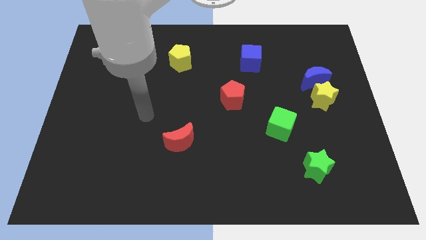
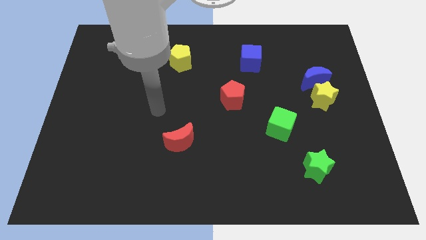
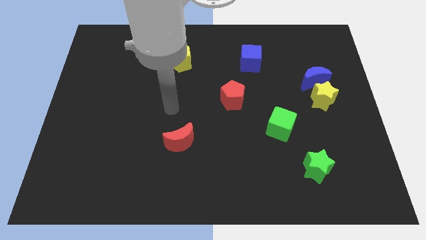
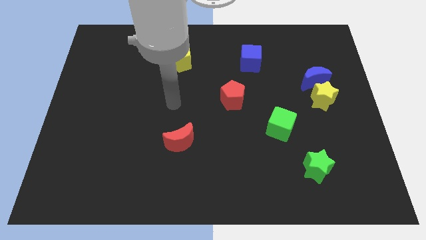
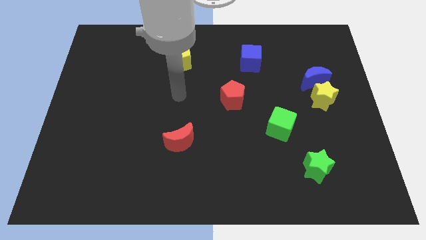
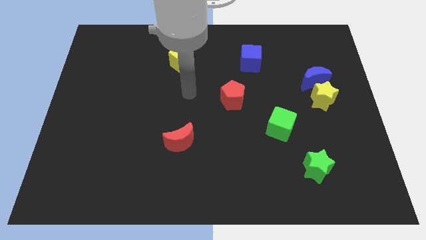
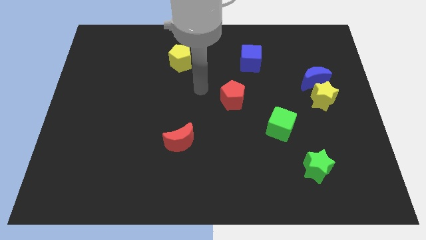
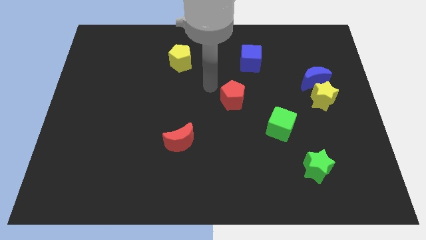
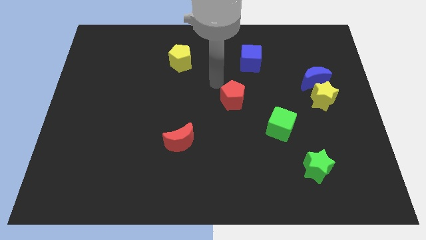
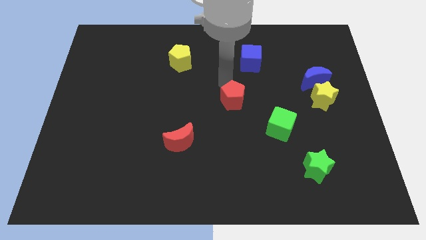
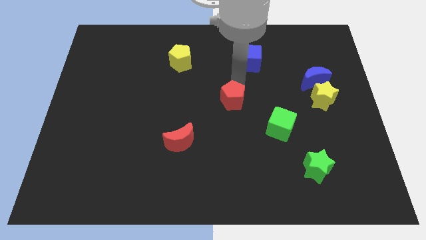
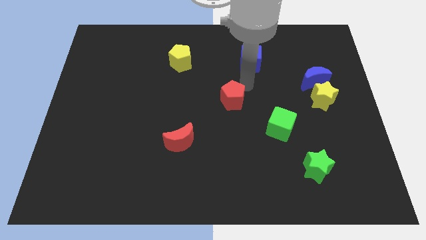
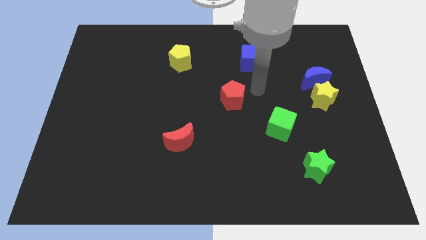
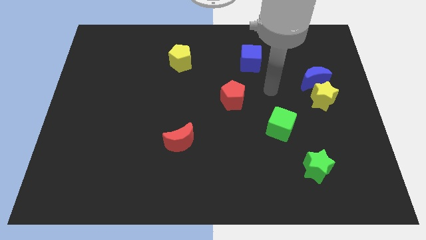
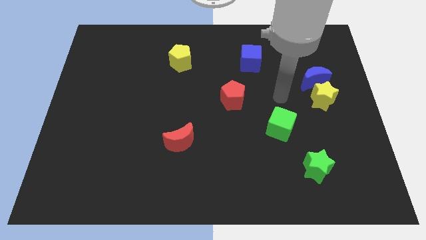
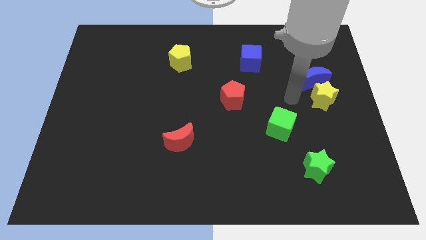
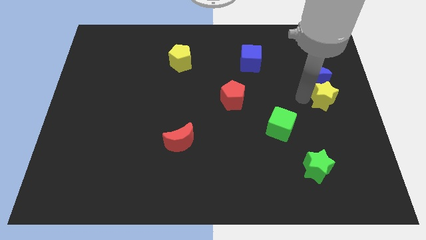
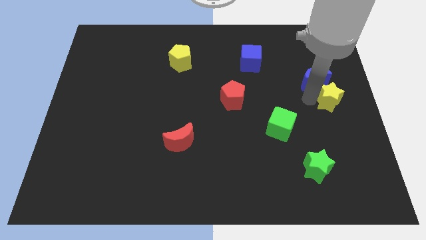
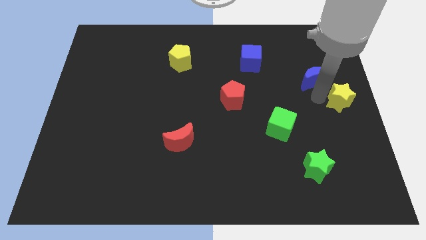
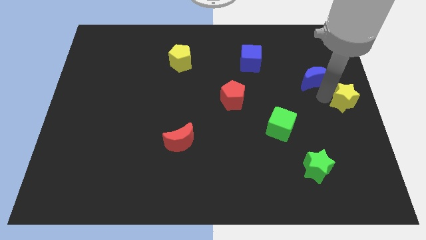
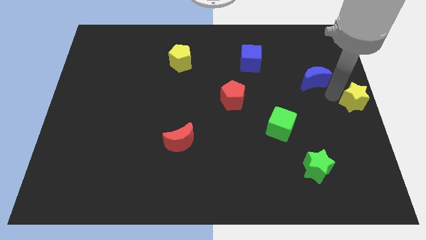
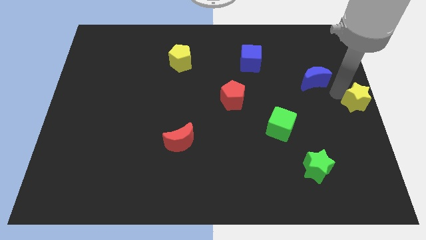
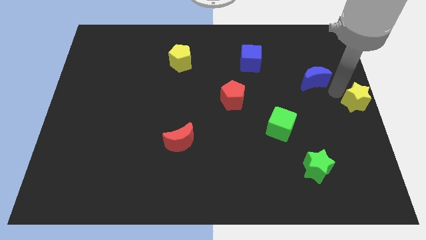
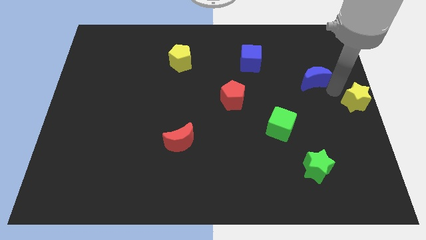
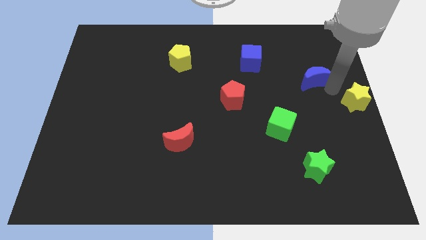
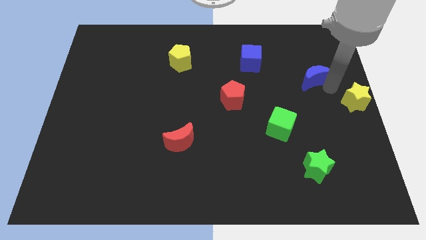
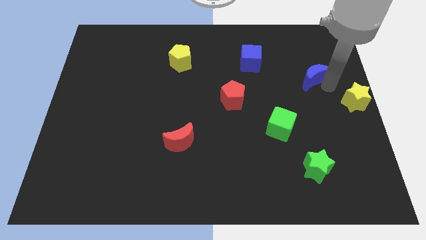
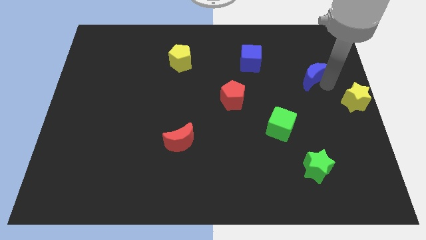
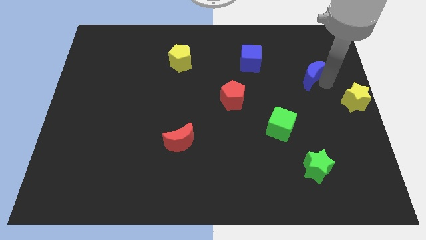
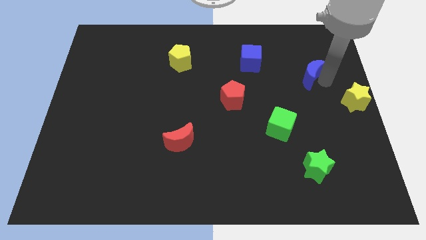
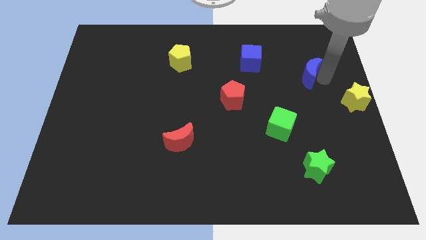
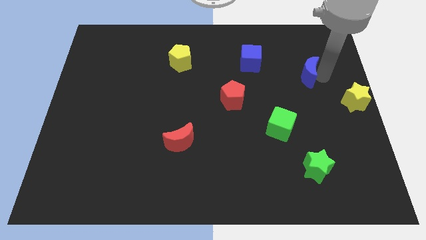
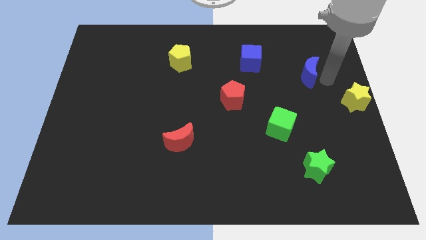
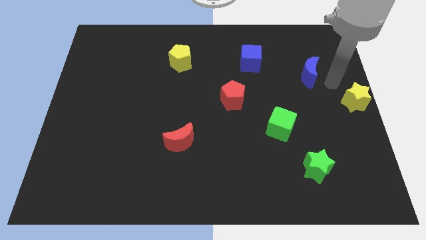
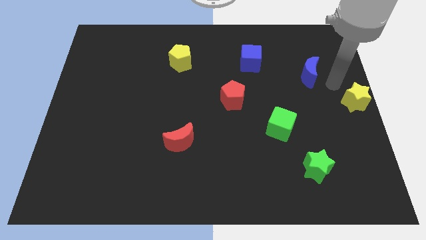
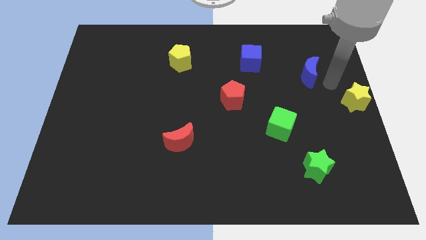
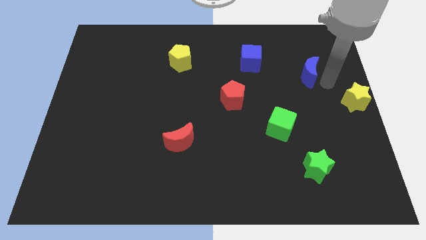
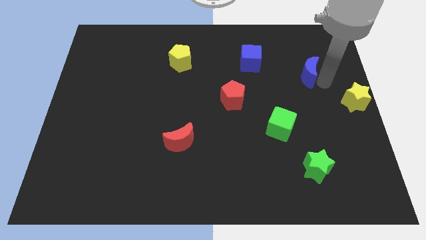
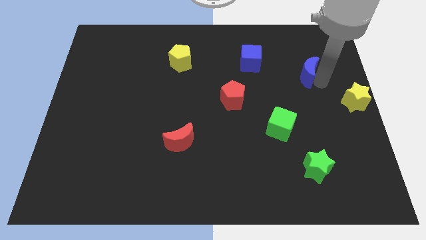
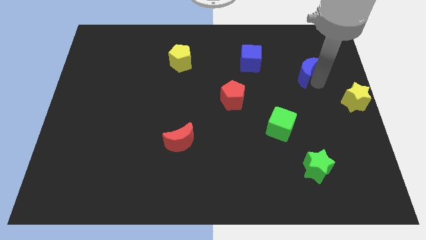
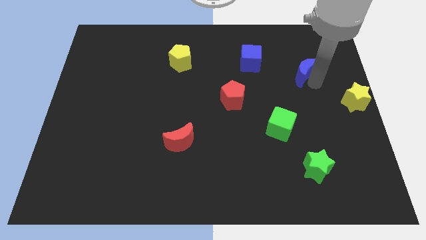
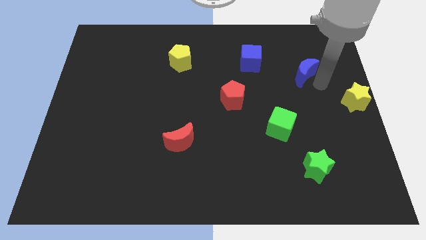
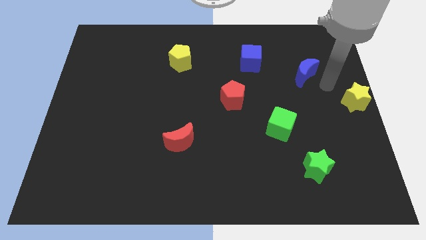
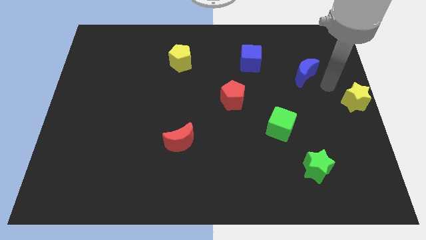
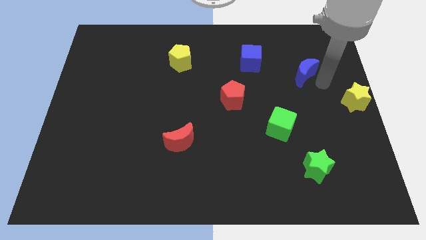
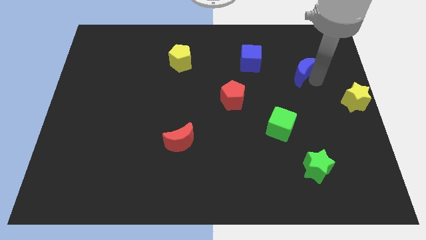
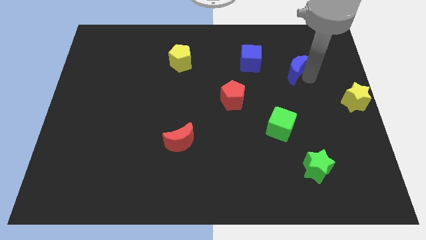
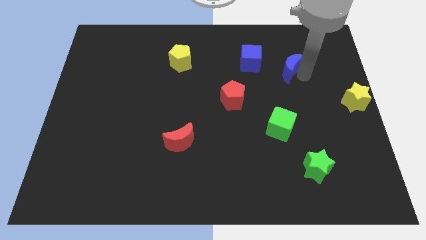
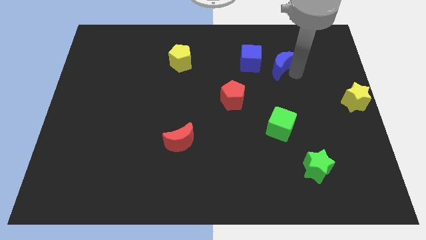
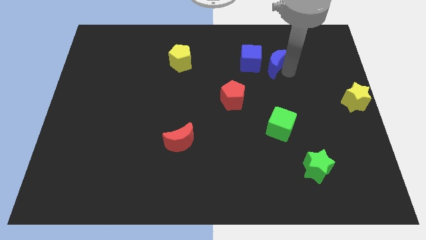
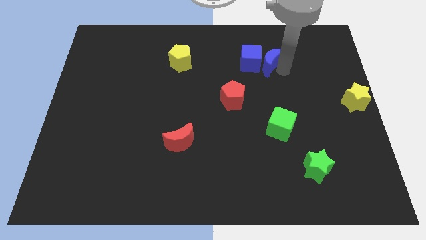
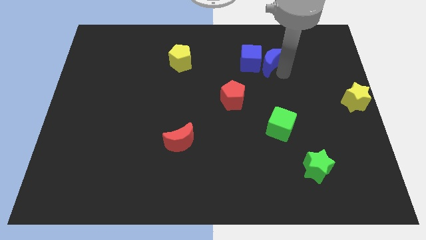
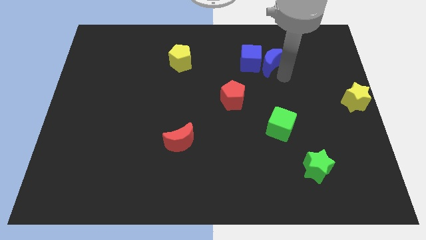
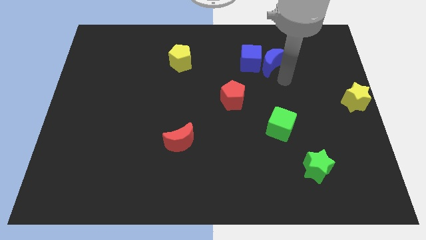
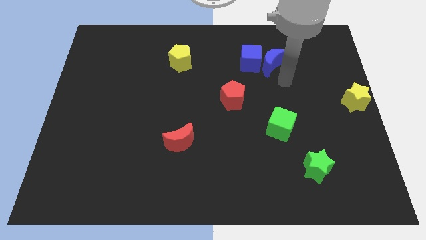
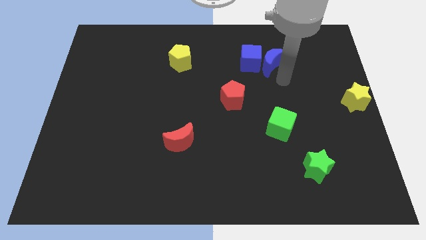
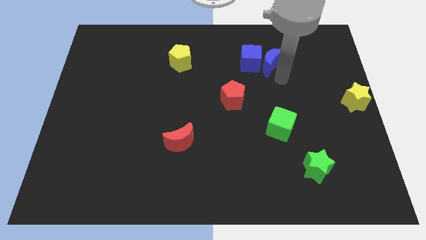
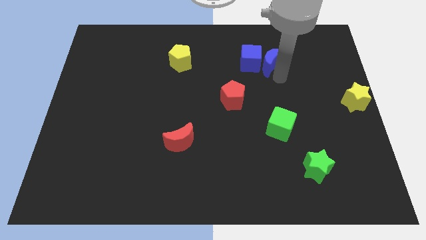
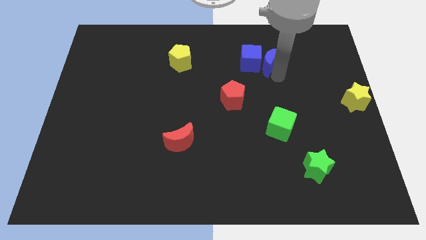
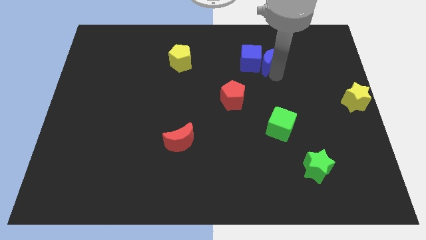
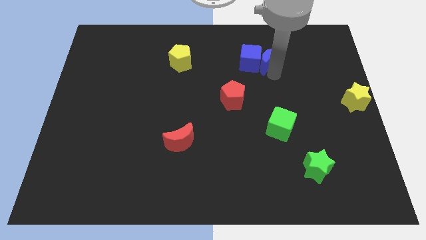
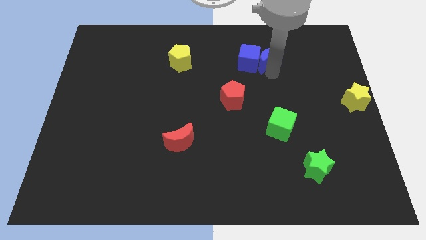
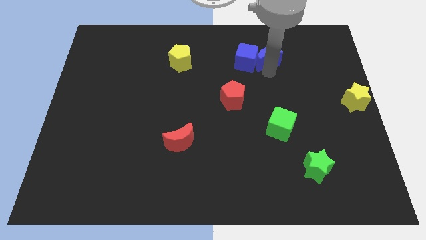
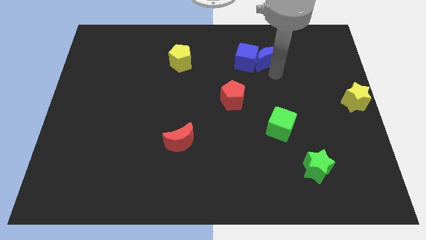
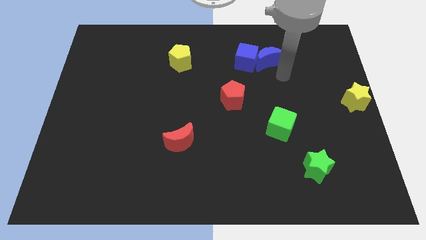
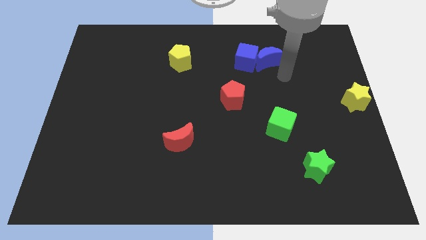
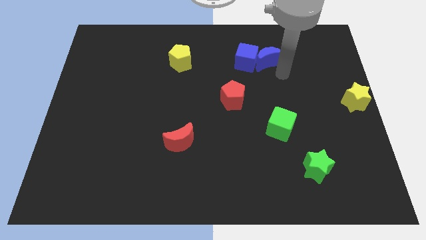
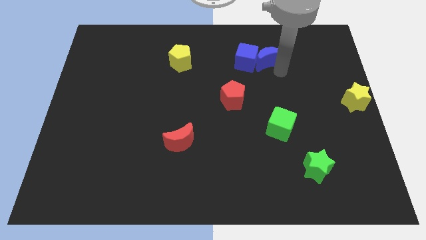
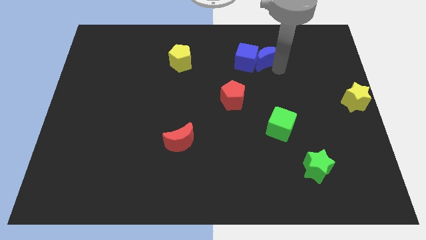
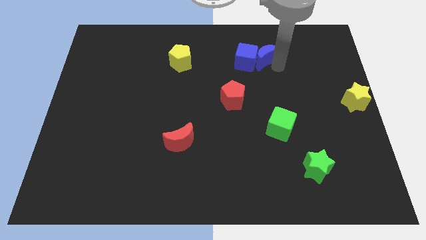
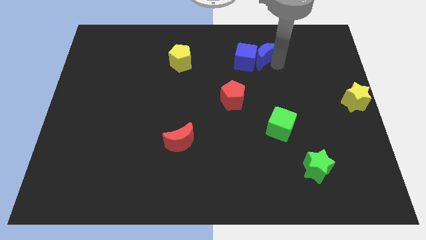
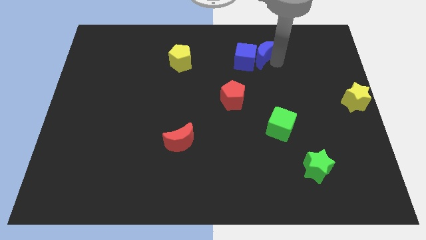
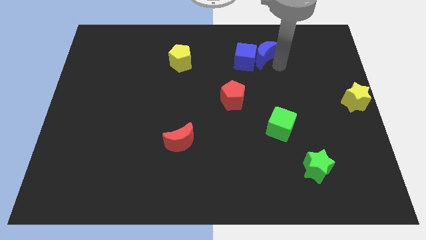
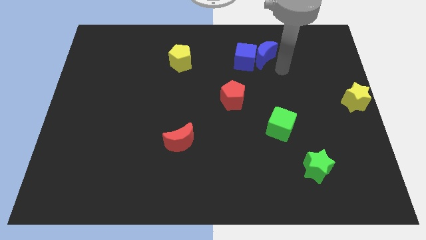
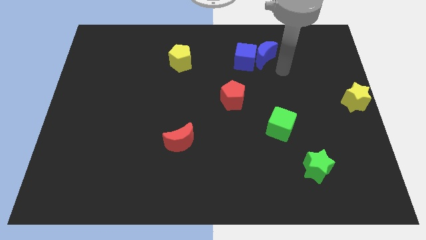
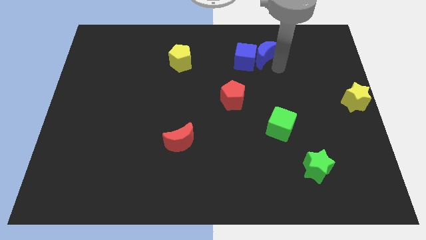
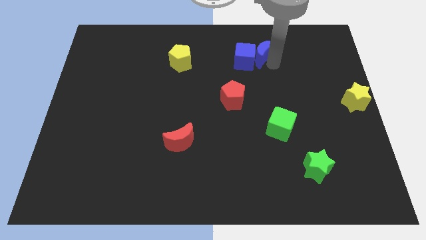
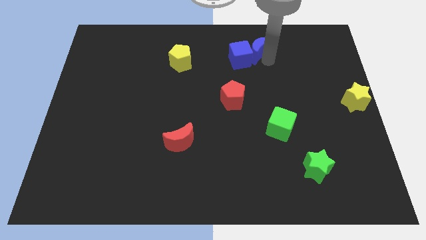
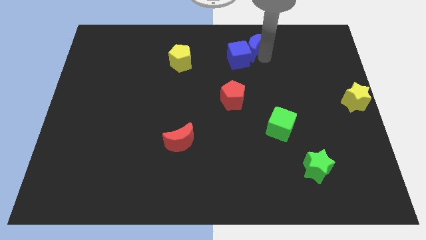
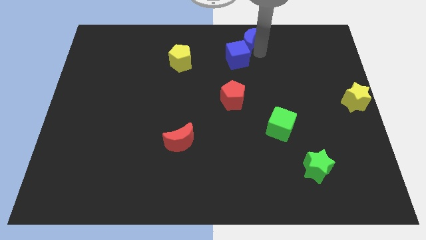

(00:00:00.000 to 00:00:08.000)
move the blue moon to the top side
